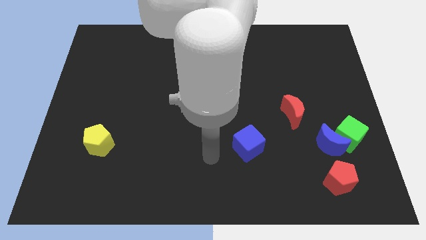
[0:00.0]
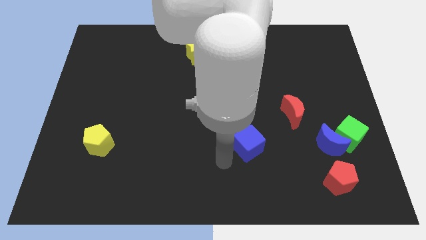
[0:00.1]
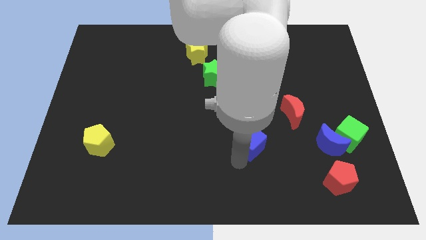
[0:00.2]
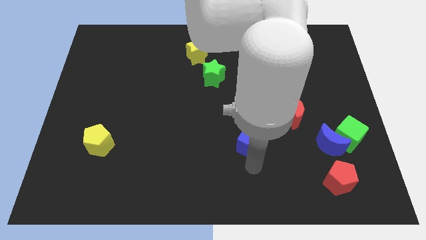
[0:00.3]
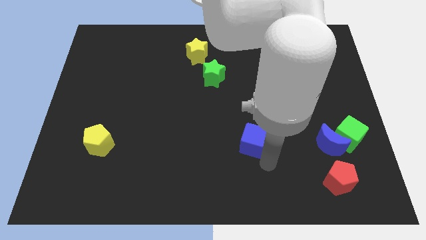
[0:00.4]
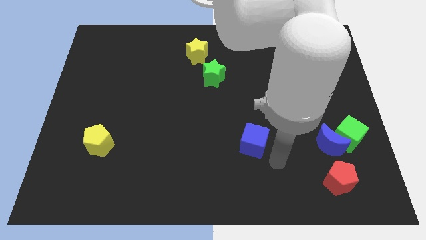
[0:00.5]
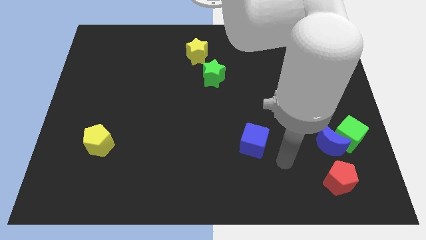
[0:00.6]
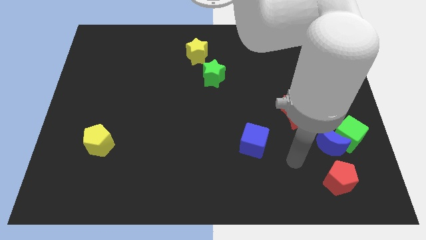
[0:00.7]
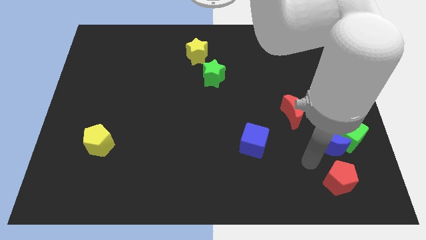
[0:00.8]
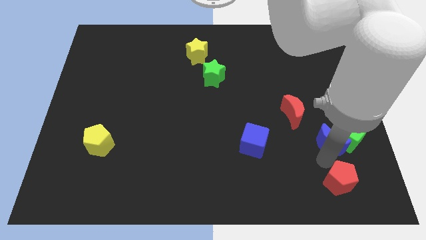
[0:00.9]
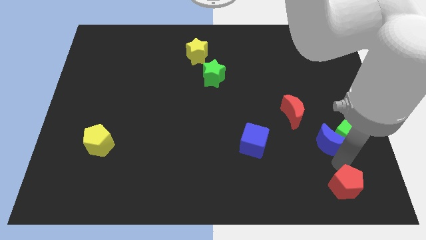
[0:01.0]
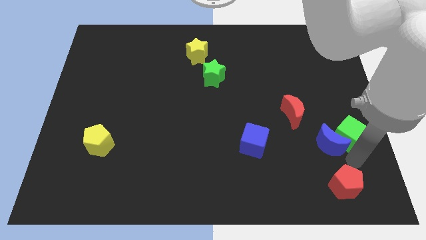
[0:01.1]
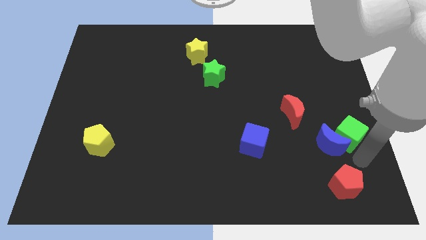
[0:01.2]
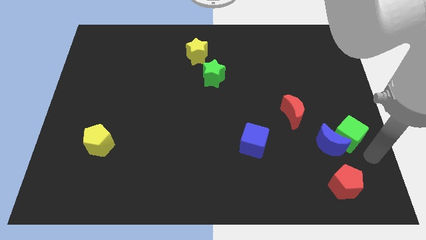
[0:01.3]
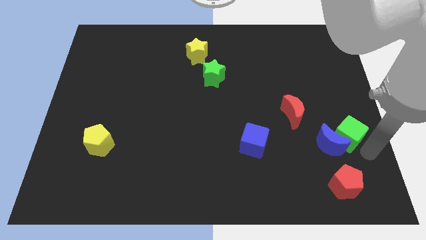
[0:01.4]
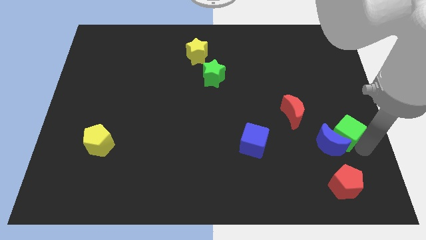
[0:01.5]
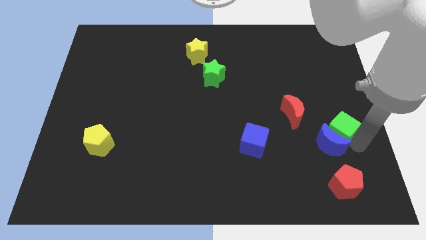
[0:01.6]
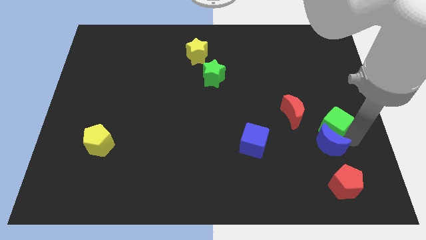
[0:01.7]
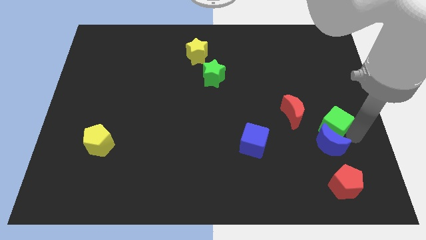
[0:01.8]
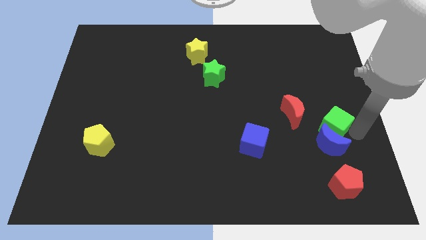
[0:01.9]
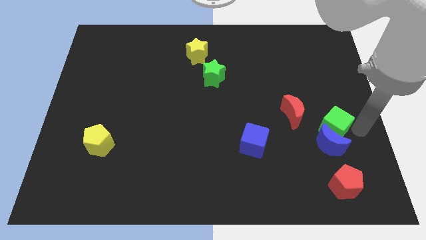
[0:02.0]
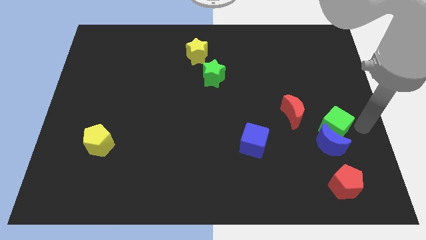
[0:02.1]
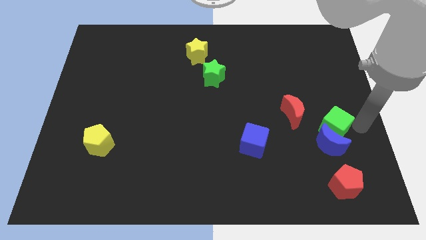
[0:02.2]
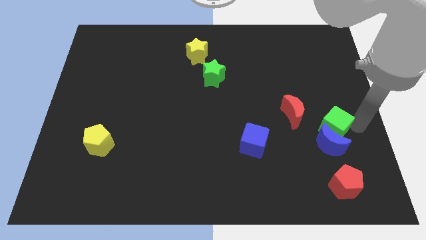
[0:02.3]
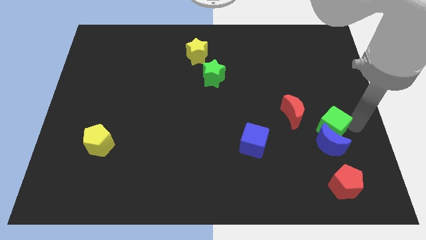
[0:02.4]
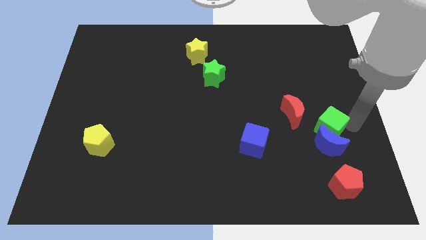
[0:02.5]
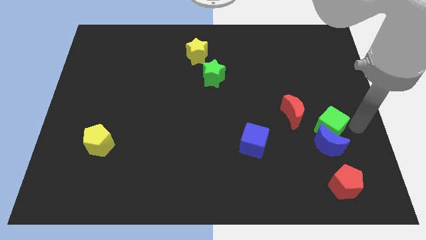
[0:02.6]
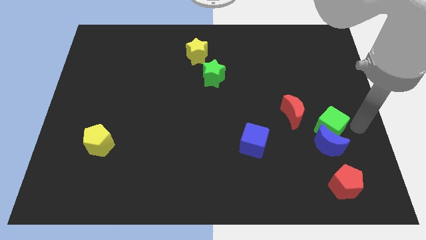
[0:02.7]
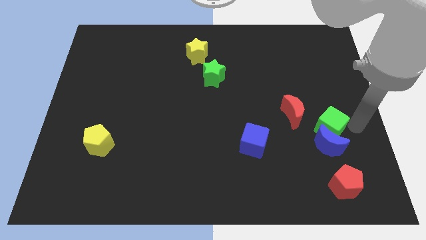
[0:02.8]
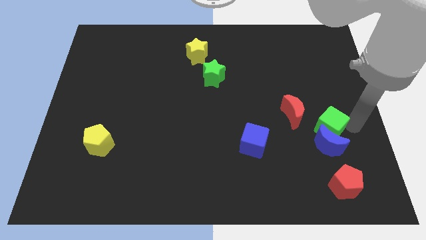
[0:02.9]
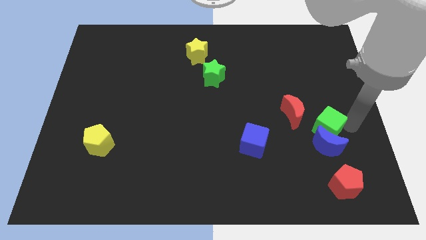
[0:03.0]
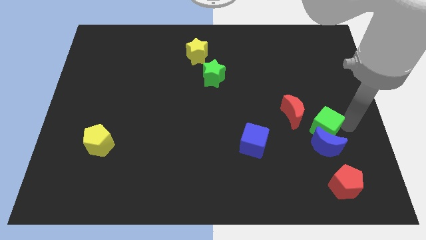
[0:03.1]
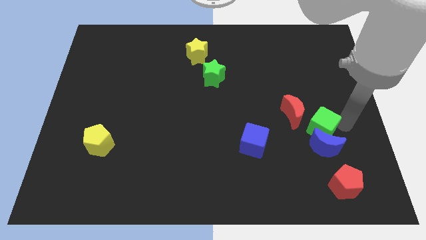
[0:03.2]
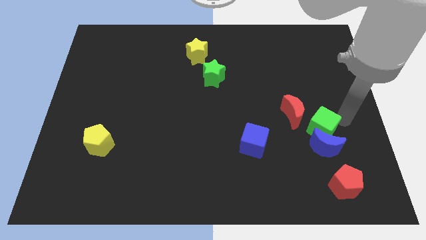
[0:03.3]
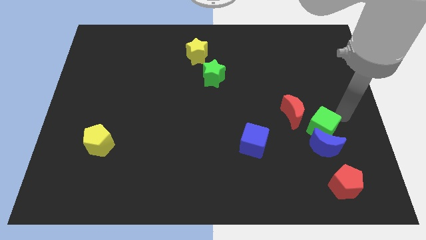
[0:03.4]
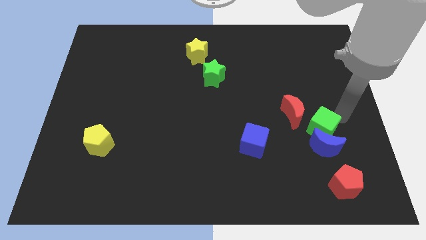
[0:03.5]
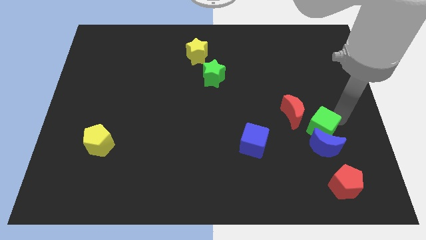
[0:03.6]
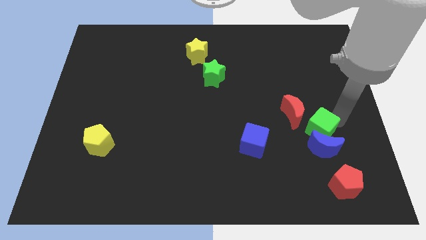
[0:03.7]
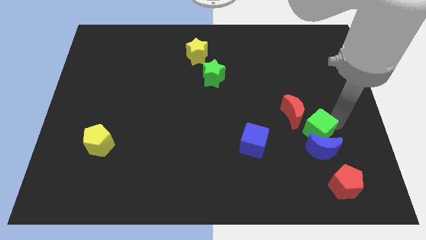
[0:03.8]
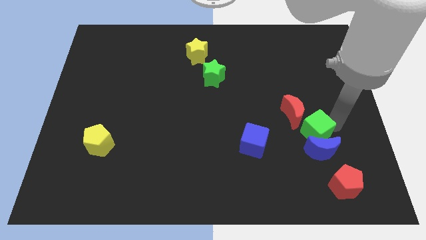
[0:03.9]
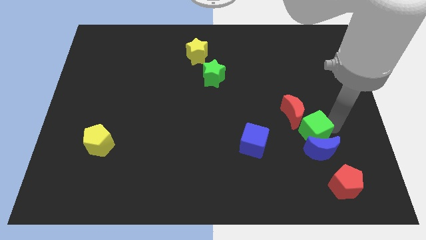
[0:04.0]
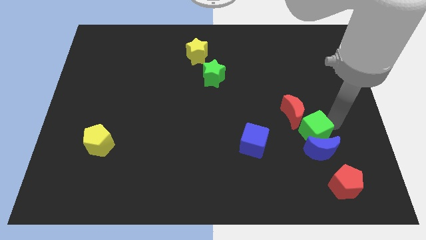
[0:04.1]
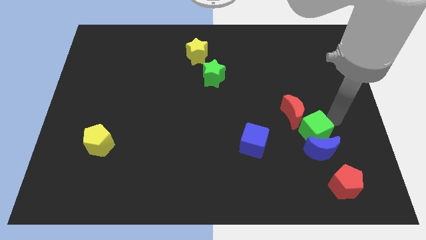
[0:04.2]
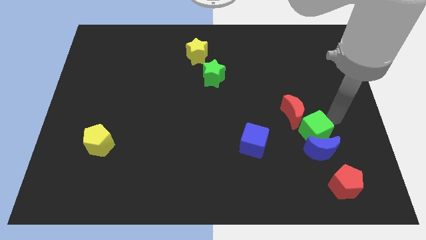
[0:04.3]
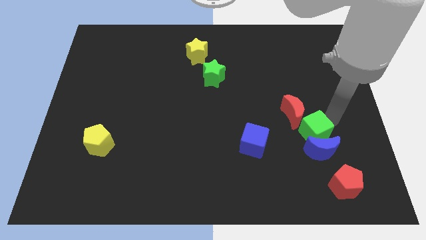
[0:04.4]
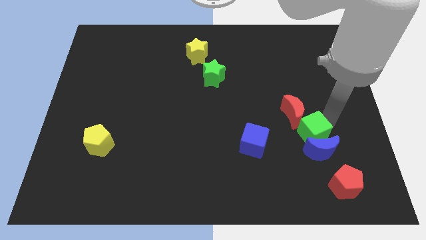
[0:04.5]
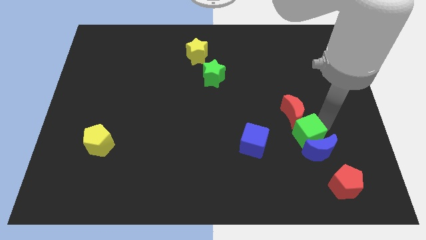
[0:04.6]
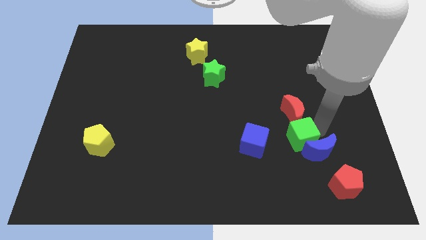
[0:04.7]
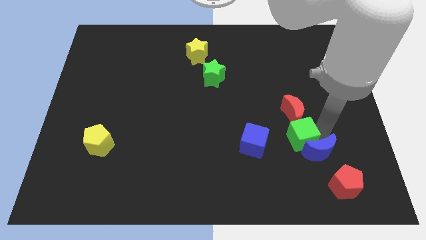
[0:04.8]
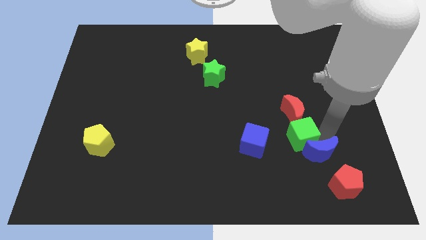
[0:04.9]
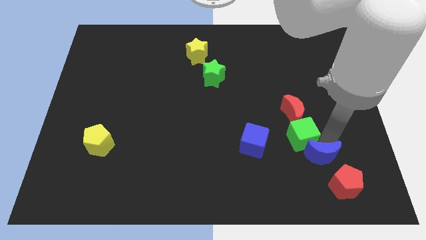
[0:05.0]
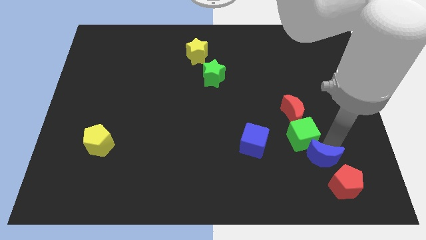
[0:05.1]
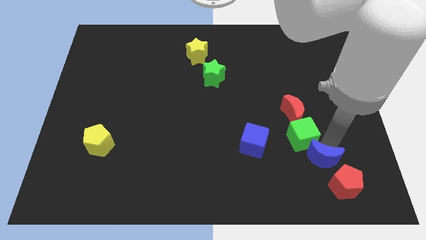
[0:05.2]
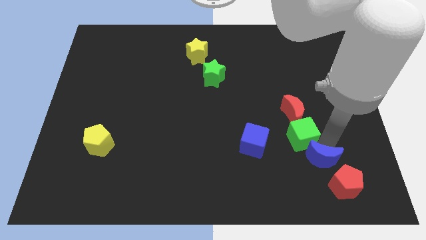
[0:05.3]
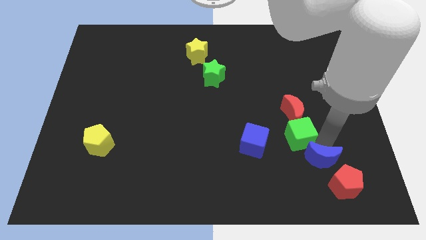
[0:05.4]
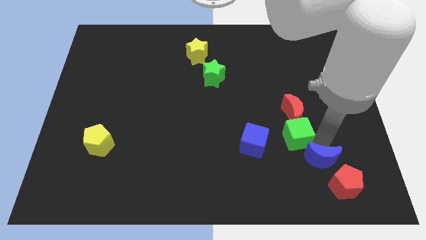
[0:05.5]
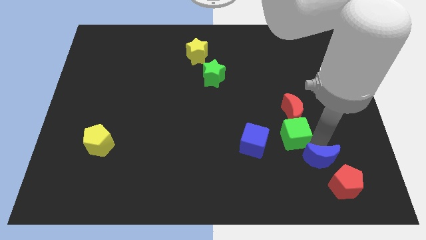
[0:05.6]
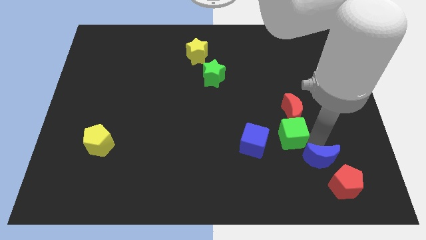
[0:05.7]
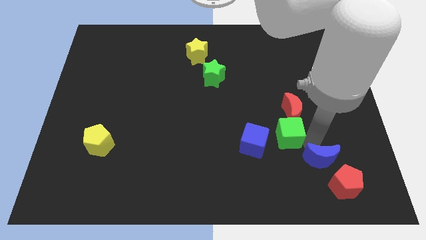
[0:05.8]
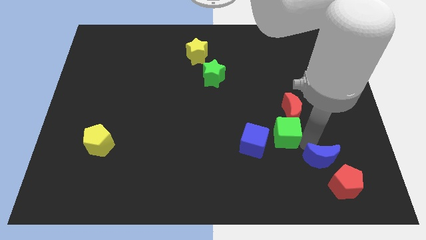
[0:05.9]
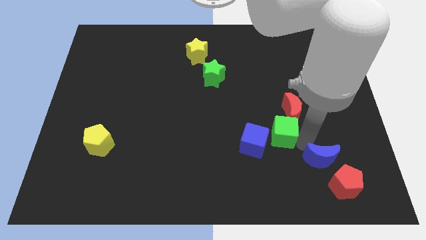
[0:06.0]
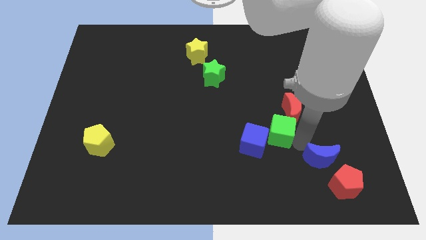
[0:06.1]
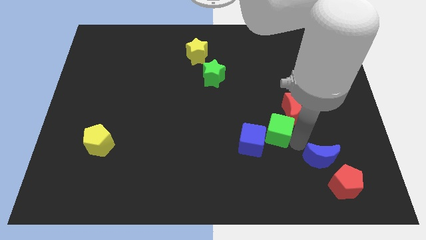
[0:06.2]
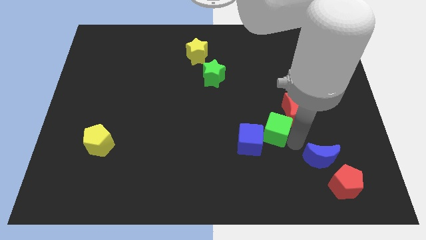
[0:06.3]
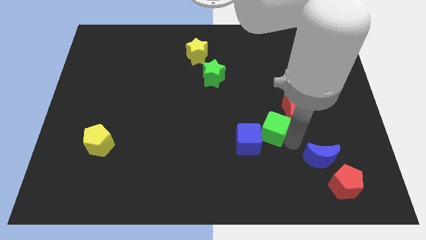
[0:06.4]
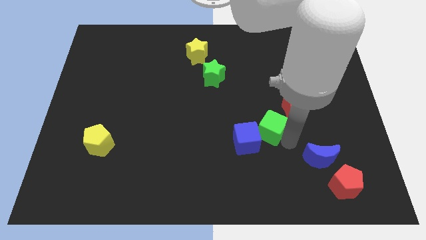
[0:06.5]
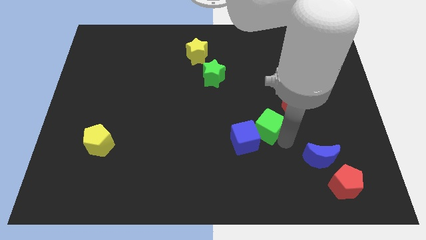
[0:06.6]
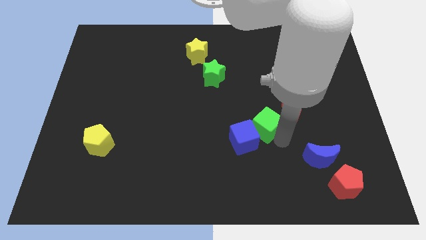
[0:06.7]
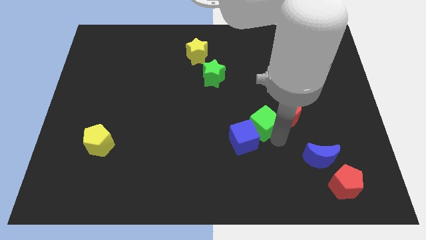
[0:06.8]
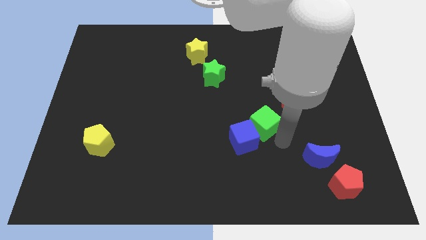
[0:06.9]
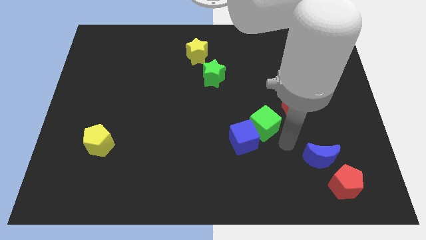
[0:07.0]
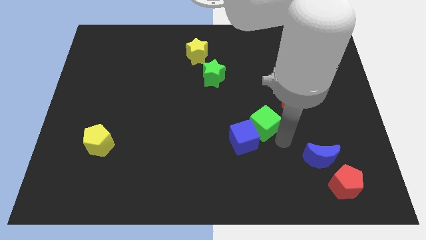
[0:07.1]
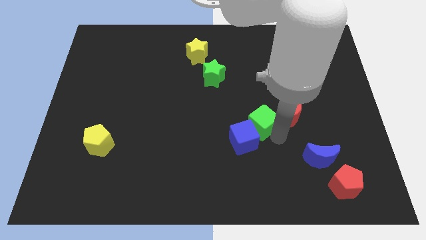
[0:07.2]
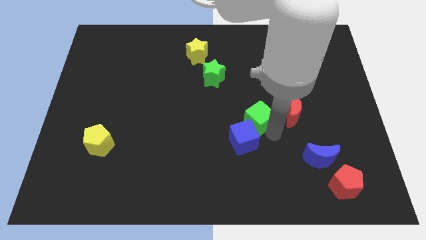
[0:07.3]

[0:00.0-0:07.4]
slide the green cube to the center
